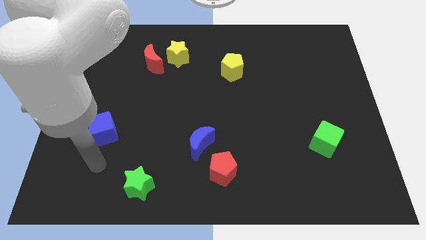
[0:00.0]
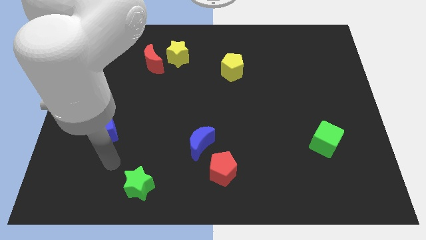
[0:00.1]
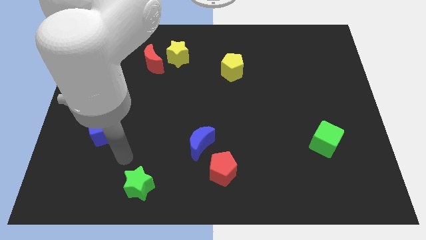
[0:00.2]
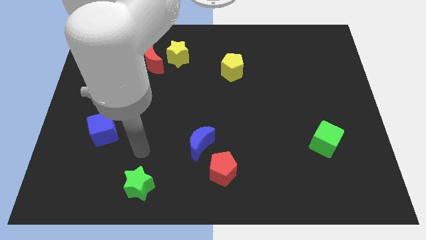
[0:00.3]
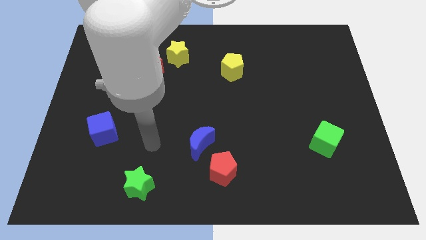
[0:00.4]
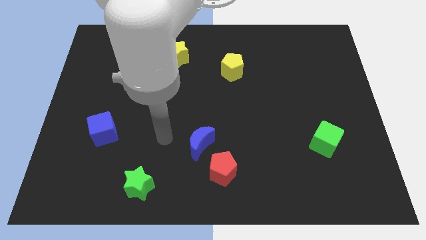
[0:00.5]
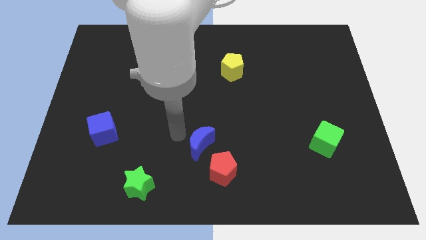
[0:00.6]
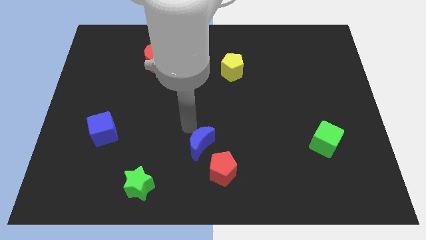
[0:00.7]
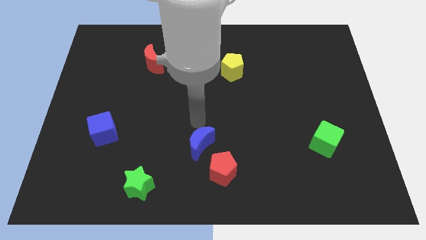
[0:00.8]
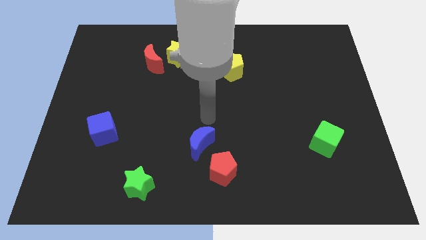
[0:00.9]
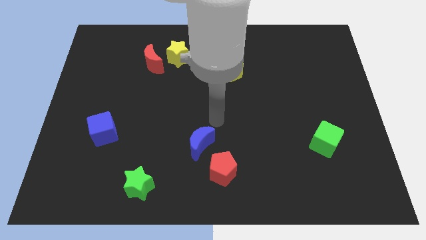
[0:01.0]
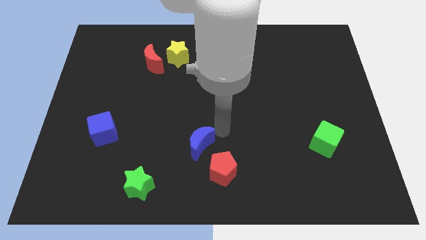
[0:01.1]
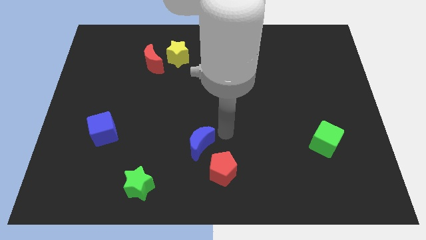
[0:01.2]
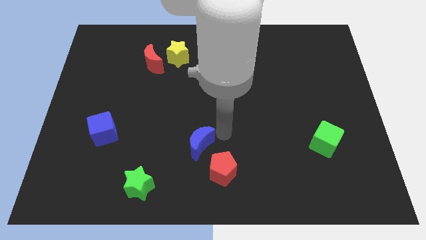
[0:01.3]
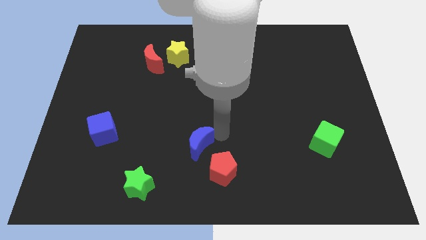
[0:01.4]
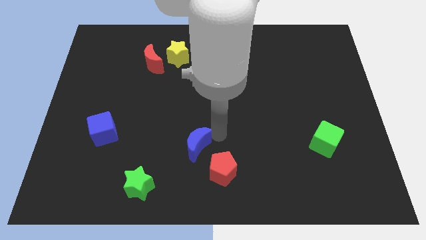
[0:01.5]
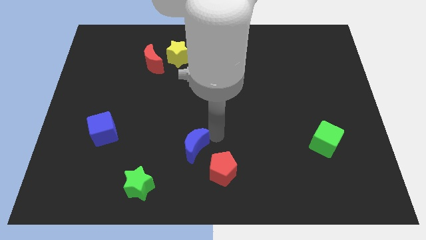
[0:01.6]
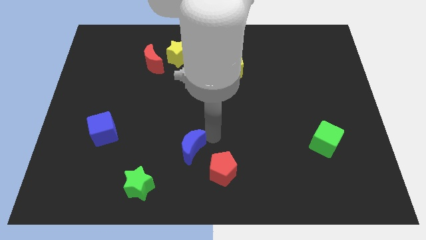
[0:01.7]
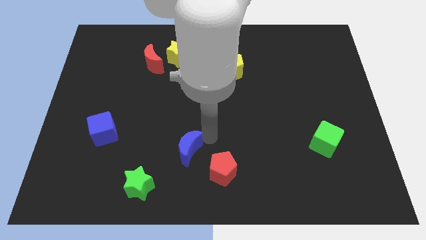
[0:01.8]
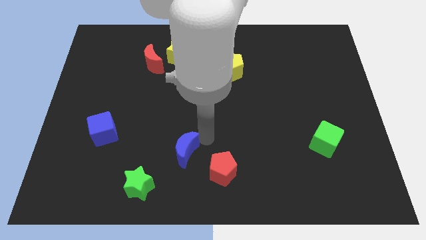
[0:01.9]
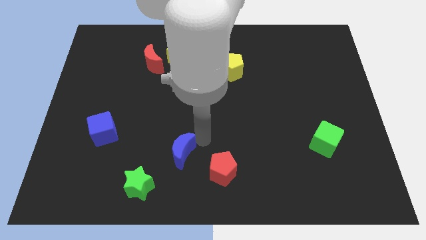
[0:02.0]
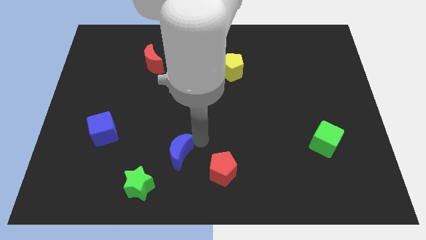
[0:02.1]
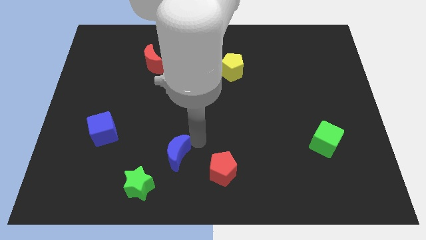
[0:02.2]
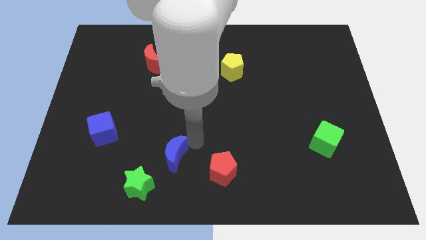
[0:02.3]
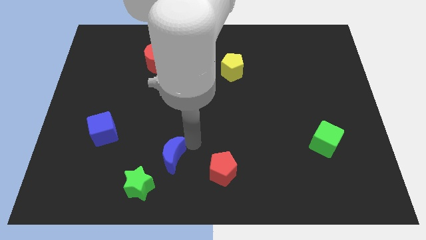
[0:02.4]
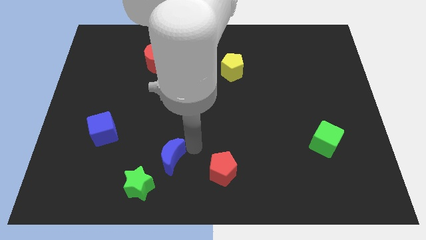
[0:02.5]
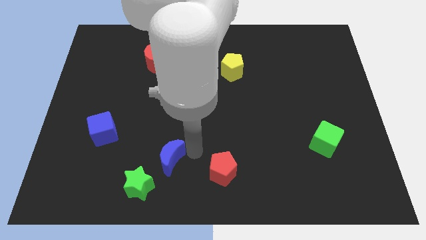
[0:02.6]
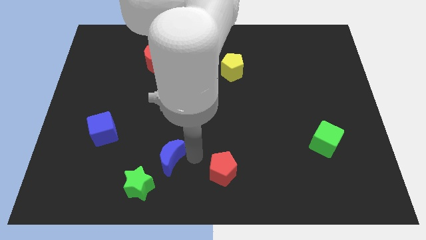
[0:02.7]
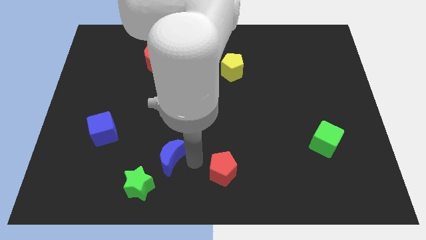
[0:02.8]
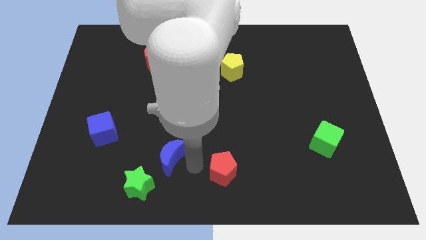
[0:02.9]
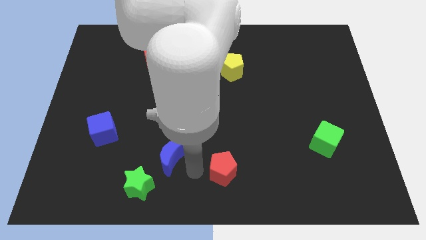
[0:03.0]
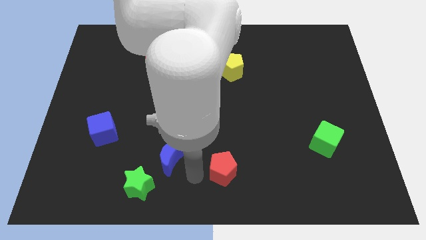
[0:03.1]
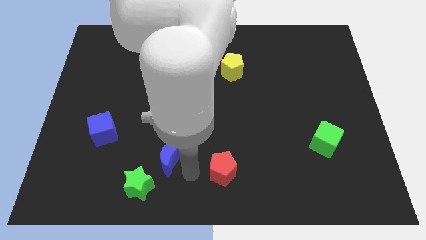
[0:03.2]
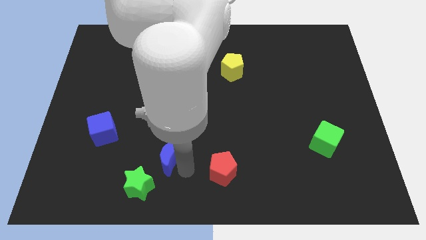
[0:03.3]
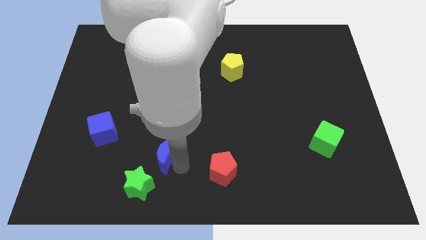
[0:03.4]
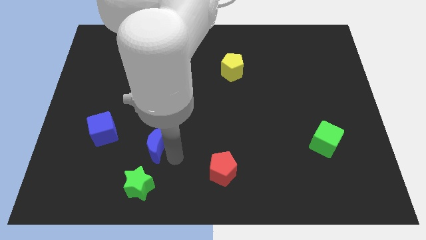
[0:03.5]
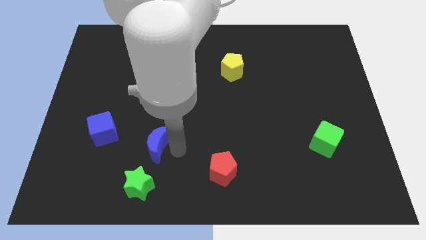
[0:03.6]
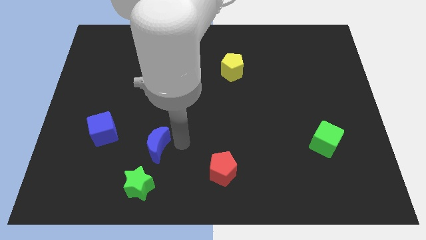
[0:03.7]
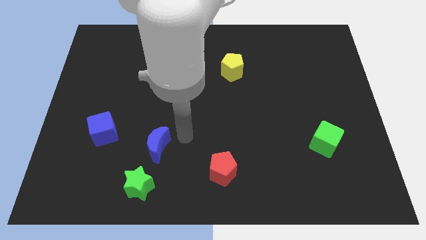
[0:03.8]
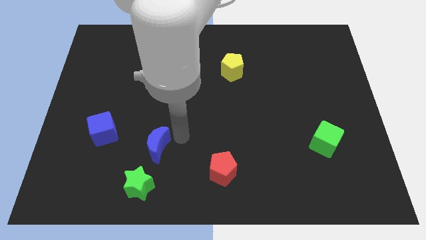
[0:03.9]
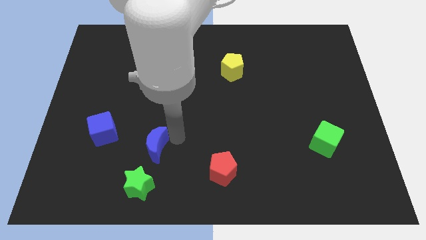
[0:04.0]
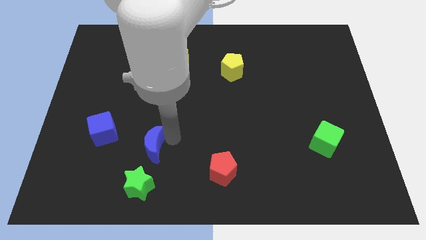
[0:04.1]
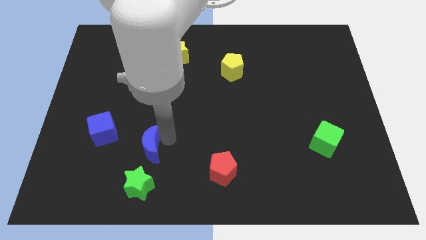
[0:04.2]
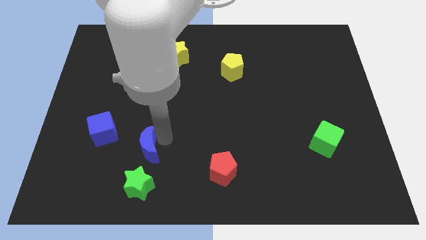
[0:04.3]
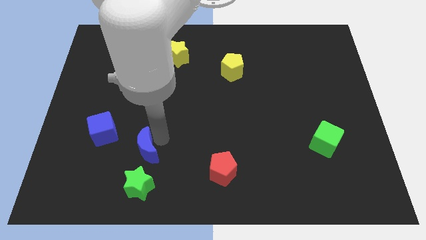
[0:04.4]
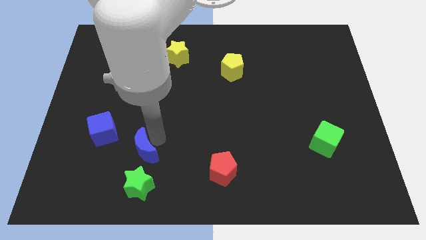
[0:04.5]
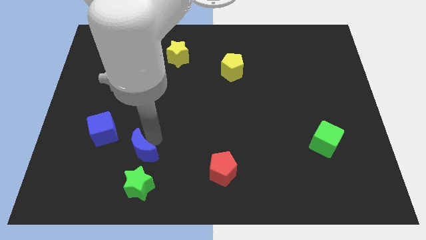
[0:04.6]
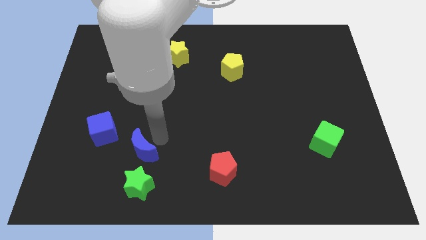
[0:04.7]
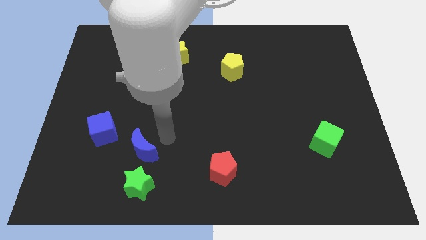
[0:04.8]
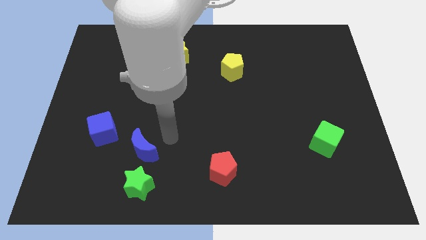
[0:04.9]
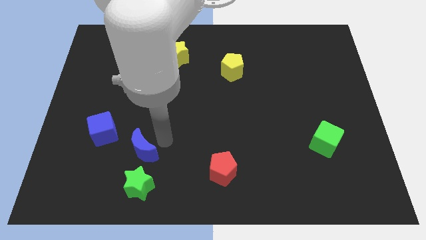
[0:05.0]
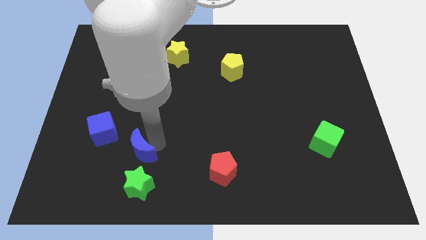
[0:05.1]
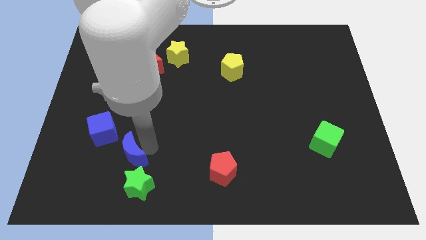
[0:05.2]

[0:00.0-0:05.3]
push the blue moon diagonally up and to the left of the green star

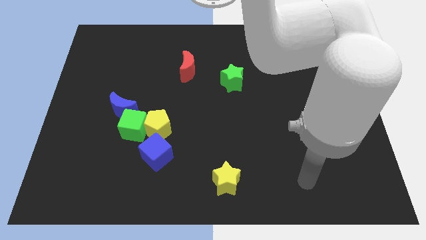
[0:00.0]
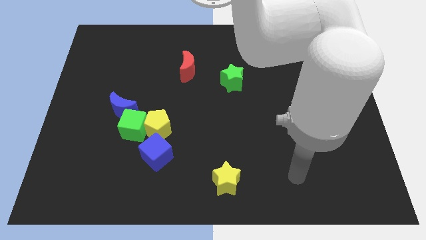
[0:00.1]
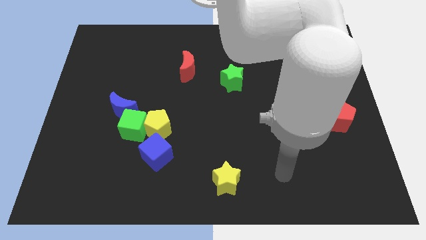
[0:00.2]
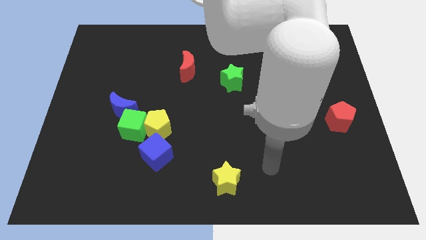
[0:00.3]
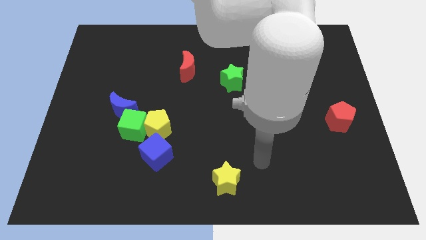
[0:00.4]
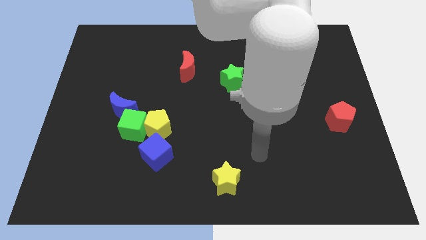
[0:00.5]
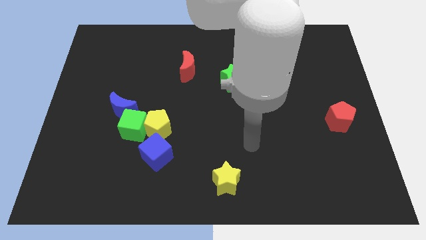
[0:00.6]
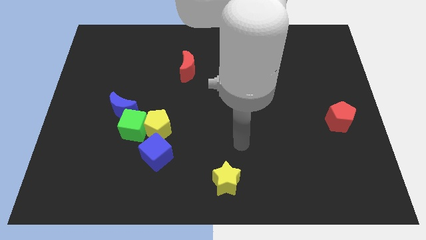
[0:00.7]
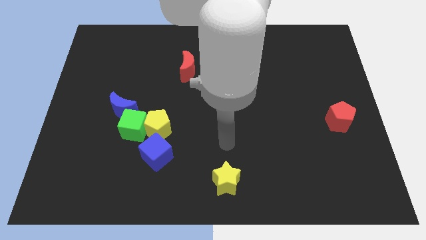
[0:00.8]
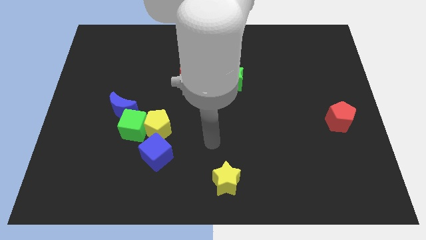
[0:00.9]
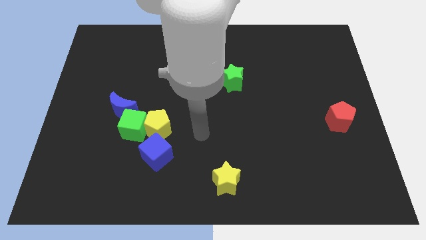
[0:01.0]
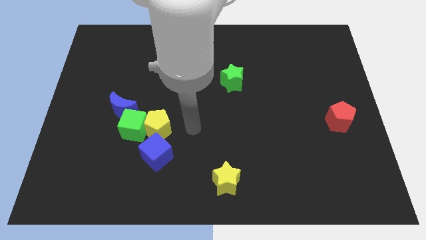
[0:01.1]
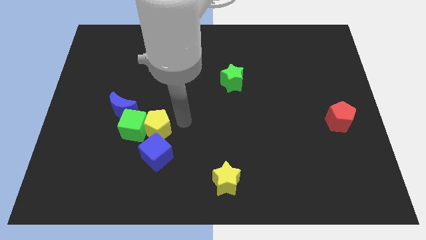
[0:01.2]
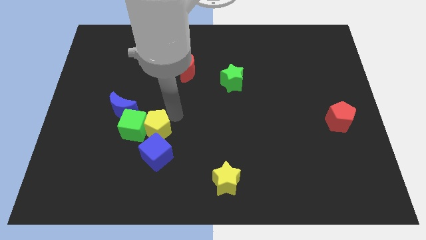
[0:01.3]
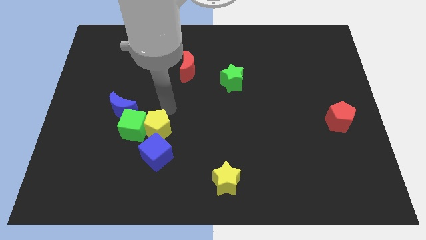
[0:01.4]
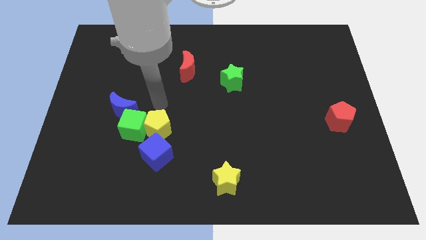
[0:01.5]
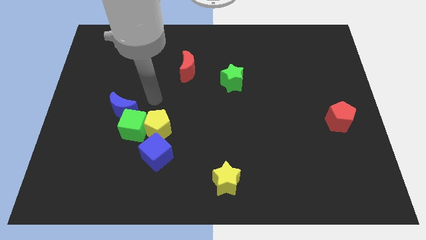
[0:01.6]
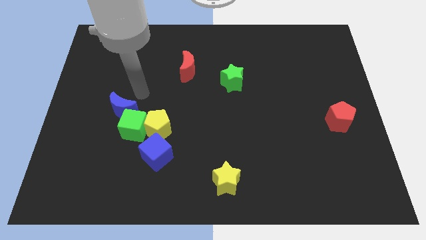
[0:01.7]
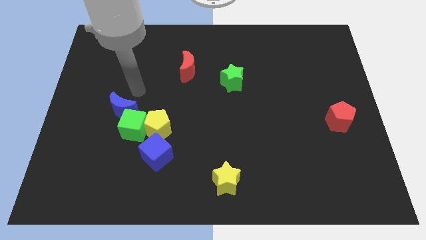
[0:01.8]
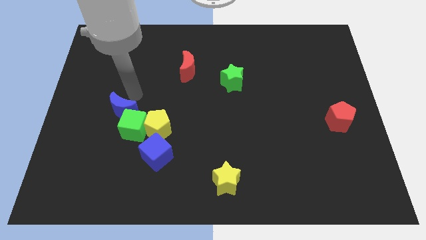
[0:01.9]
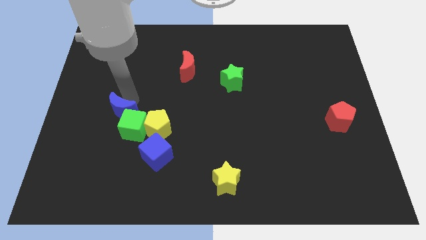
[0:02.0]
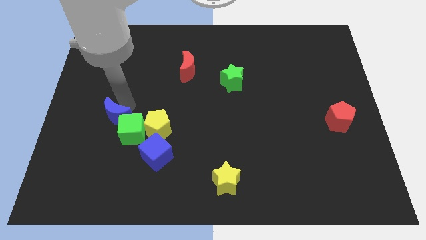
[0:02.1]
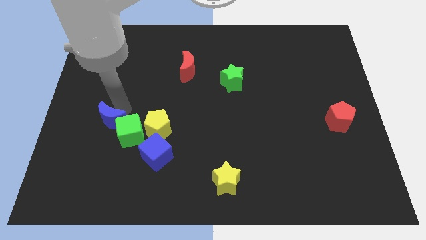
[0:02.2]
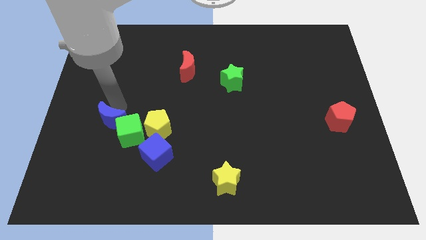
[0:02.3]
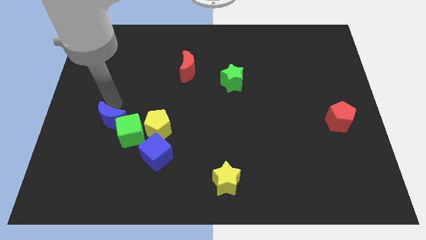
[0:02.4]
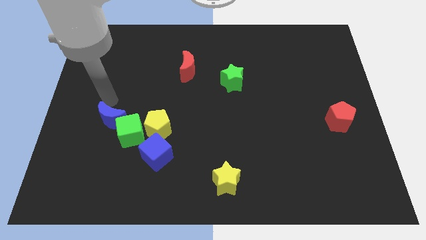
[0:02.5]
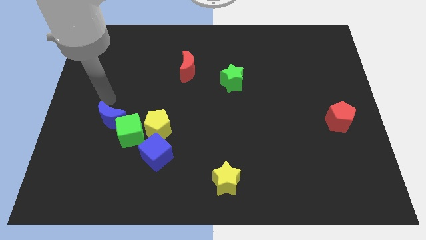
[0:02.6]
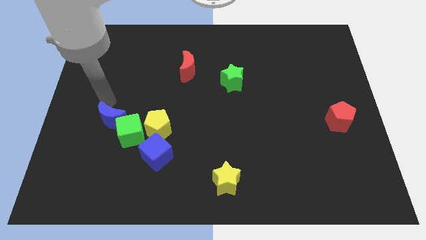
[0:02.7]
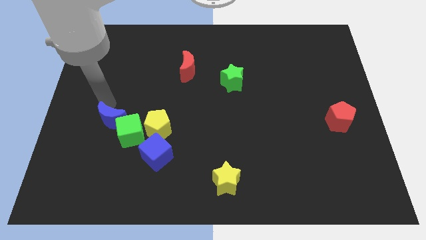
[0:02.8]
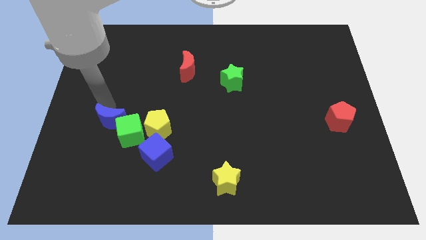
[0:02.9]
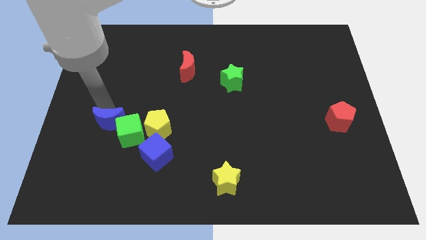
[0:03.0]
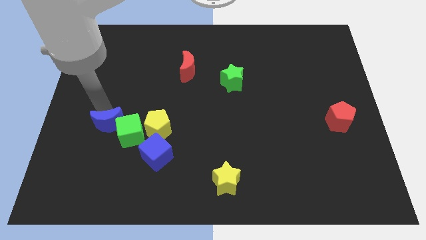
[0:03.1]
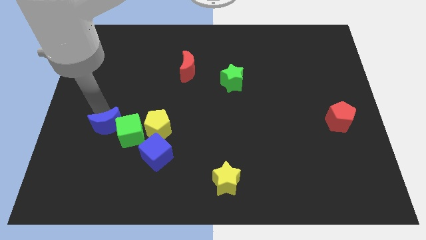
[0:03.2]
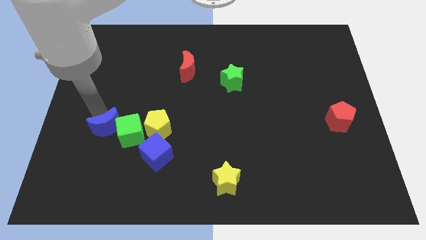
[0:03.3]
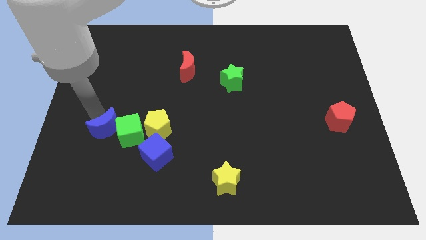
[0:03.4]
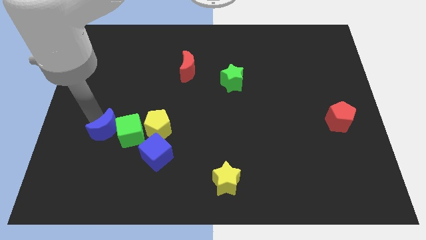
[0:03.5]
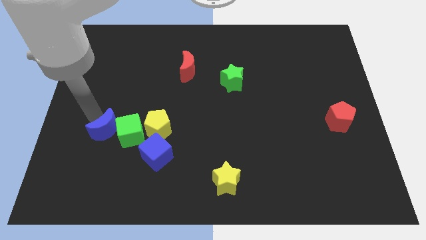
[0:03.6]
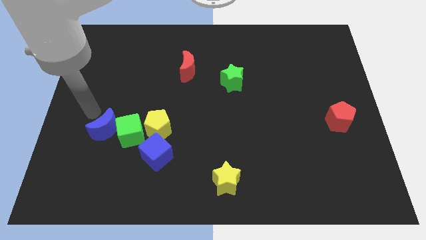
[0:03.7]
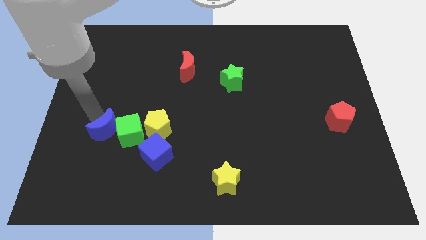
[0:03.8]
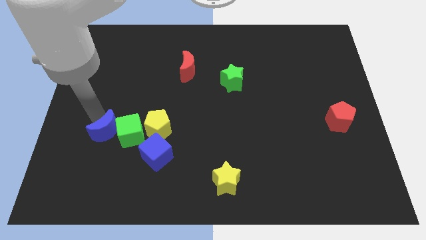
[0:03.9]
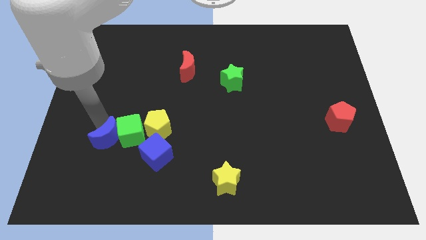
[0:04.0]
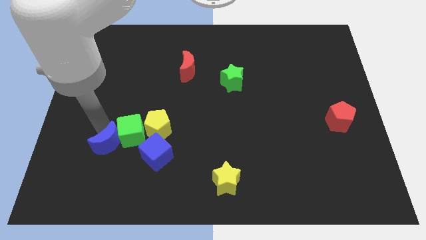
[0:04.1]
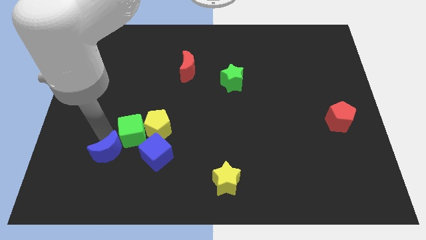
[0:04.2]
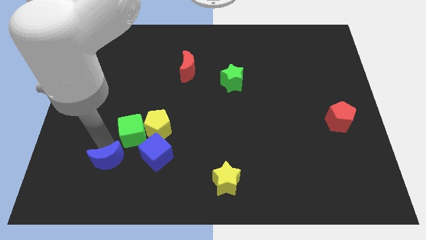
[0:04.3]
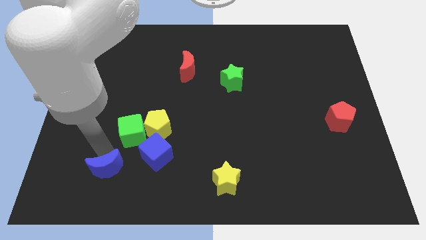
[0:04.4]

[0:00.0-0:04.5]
move the blue moon to the bottom left side of the blue cube
